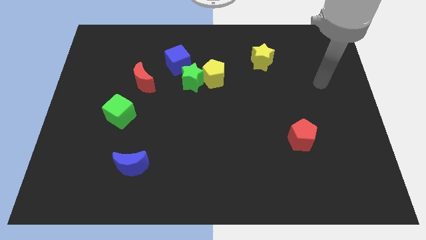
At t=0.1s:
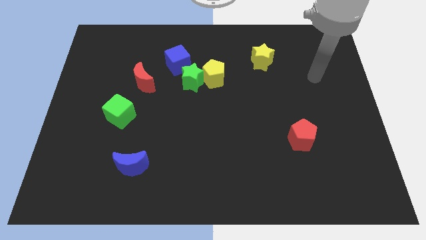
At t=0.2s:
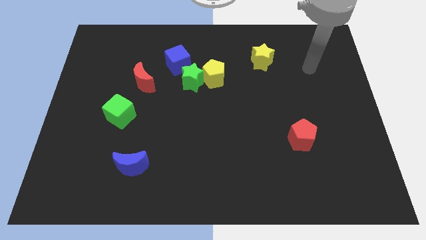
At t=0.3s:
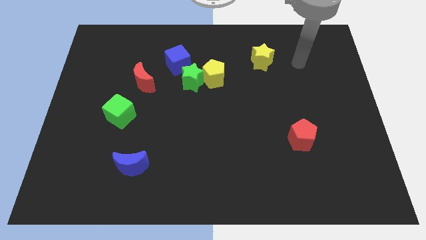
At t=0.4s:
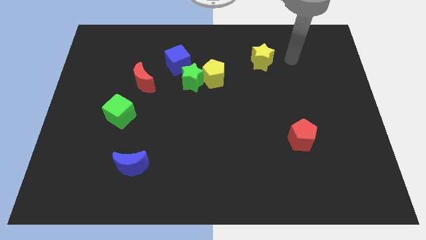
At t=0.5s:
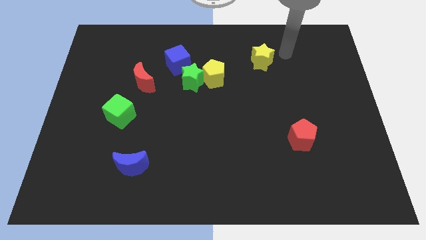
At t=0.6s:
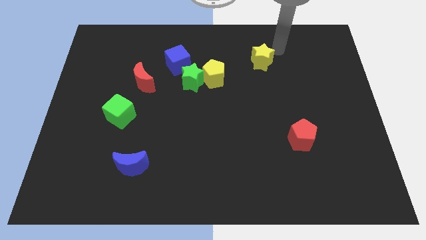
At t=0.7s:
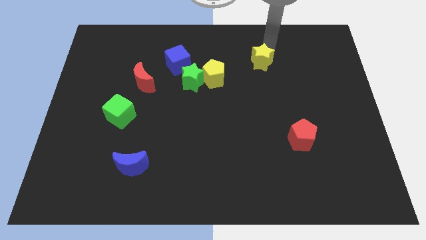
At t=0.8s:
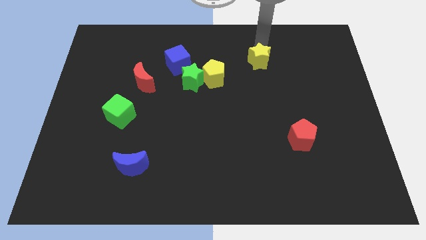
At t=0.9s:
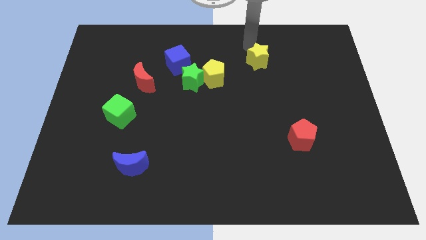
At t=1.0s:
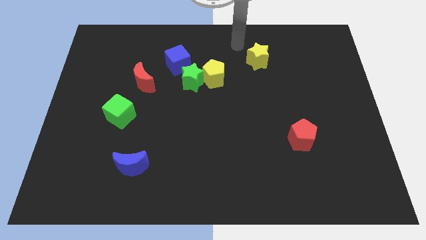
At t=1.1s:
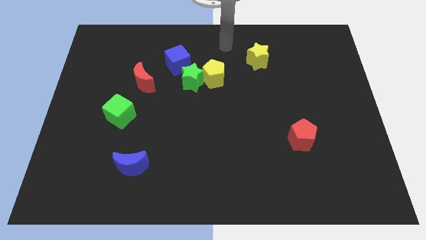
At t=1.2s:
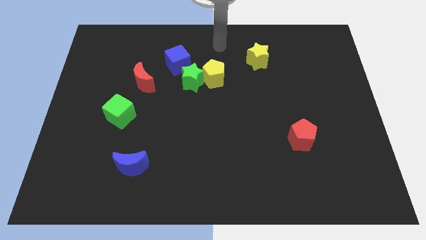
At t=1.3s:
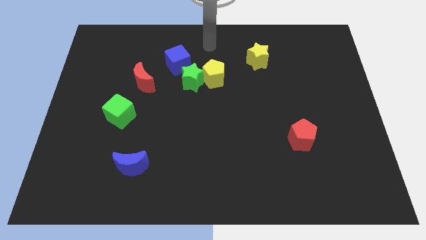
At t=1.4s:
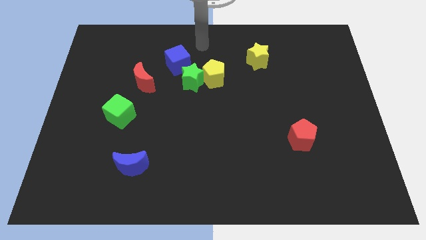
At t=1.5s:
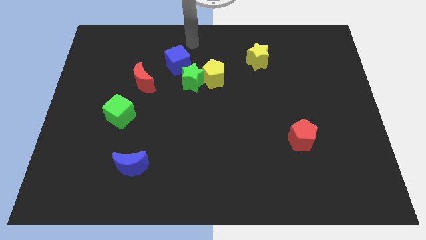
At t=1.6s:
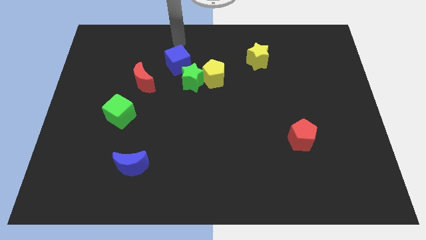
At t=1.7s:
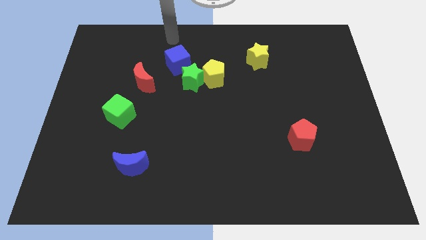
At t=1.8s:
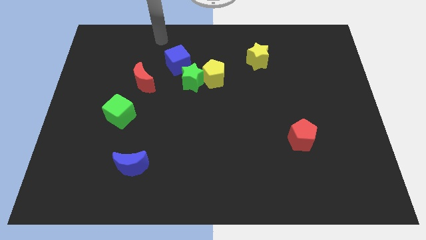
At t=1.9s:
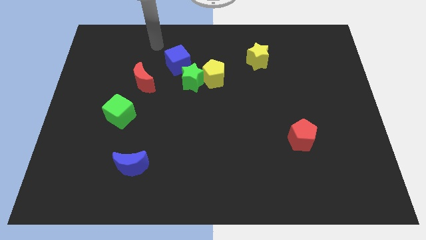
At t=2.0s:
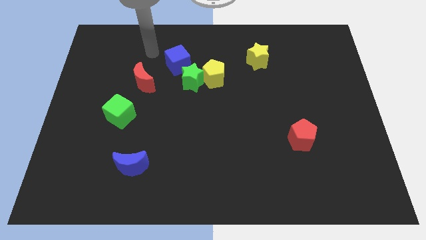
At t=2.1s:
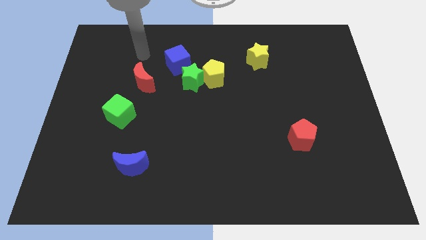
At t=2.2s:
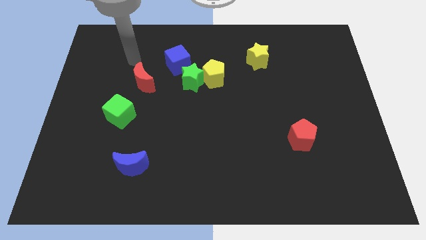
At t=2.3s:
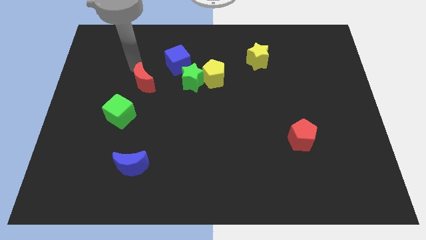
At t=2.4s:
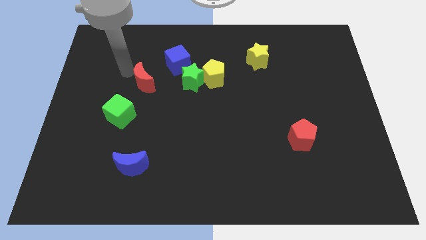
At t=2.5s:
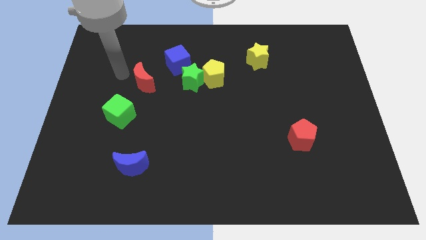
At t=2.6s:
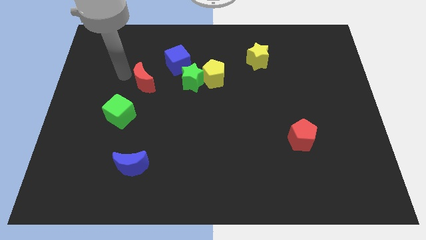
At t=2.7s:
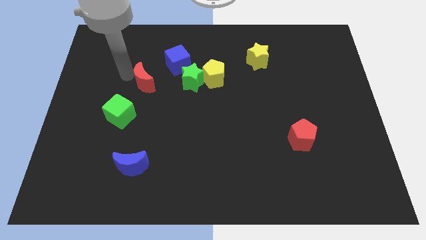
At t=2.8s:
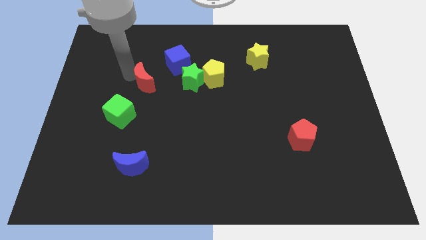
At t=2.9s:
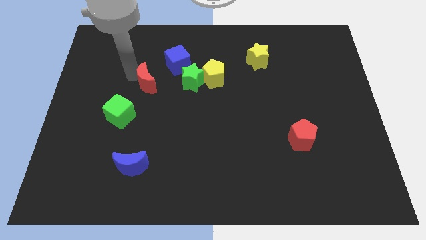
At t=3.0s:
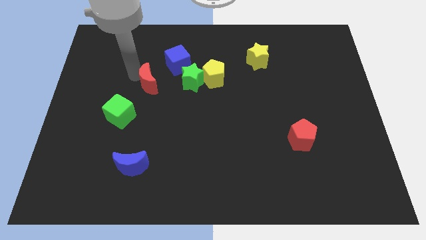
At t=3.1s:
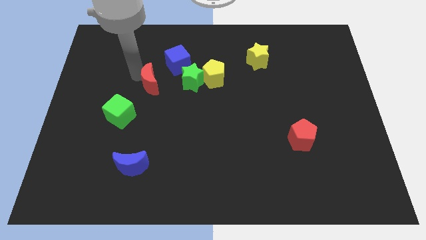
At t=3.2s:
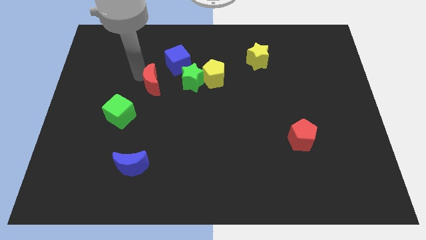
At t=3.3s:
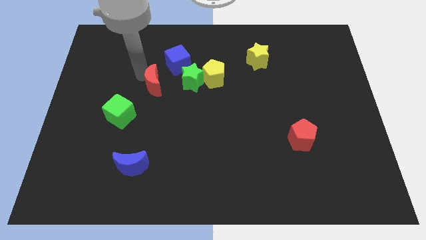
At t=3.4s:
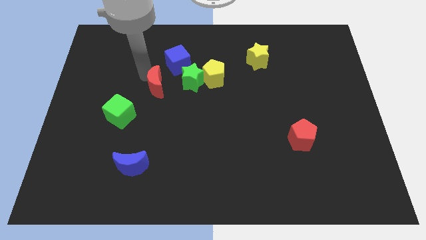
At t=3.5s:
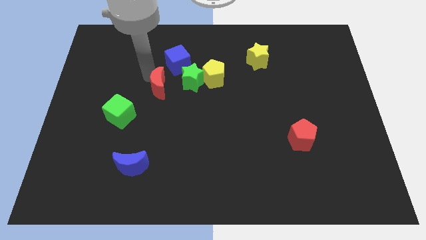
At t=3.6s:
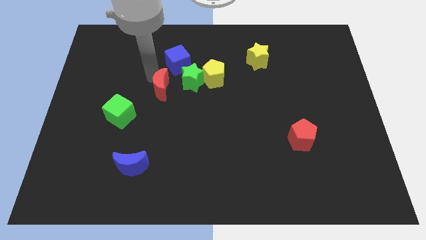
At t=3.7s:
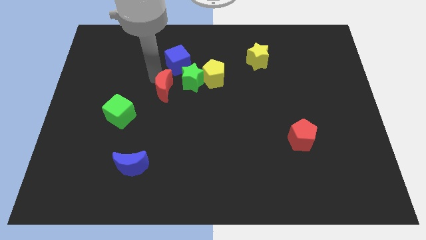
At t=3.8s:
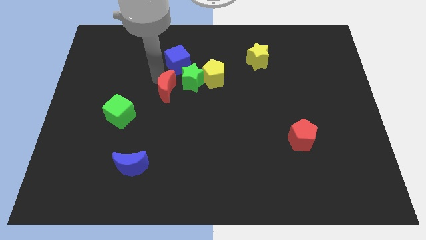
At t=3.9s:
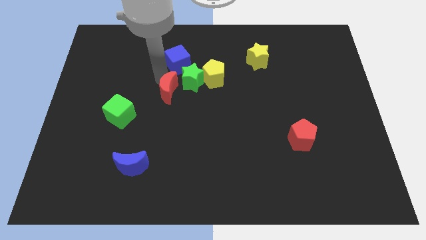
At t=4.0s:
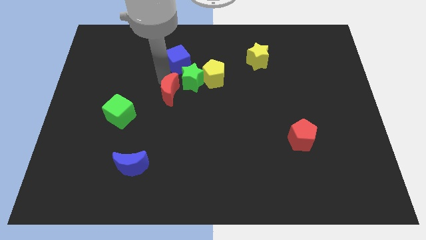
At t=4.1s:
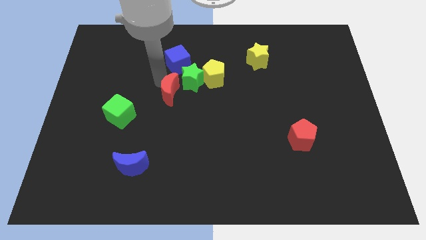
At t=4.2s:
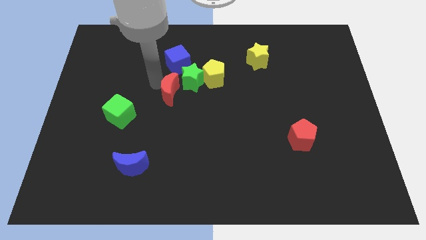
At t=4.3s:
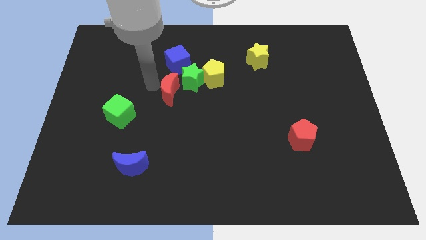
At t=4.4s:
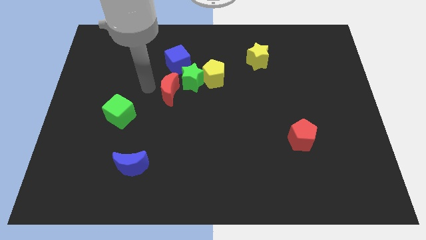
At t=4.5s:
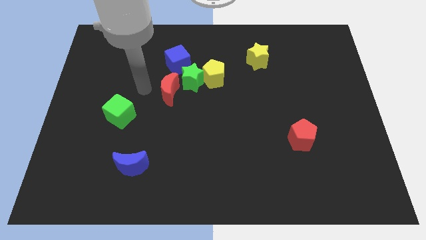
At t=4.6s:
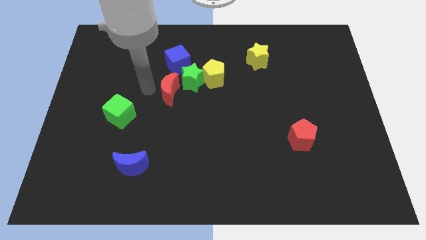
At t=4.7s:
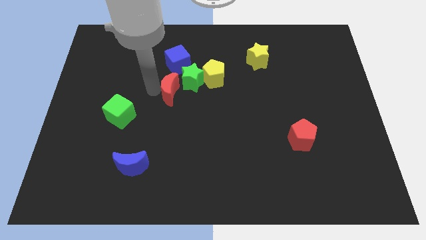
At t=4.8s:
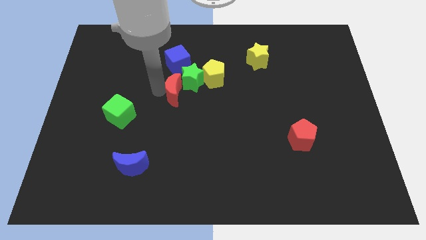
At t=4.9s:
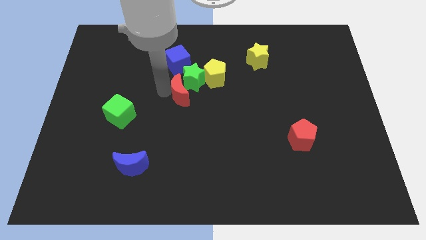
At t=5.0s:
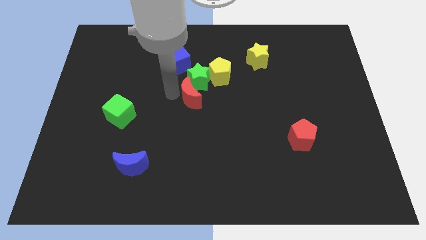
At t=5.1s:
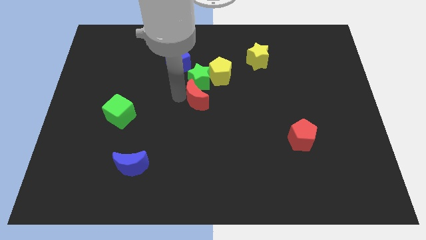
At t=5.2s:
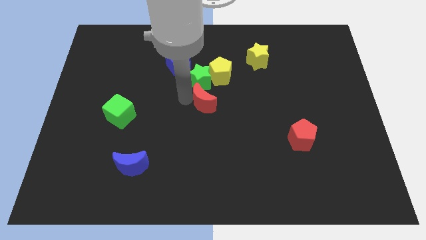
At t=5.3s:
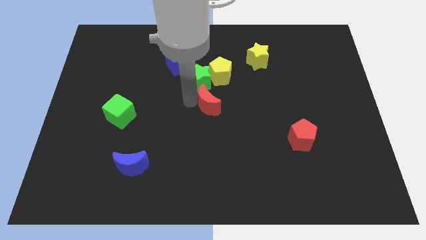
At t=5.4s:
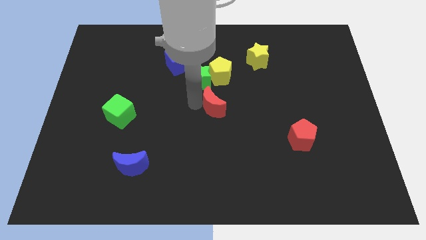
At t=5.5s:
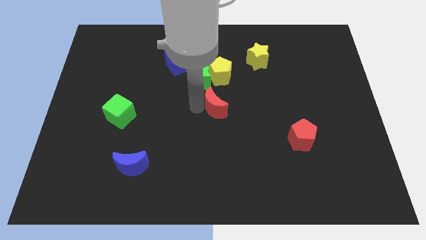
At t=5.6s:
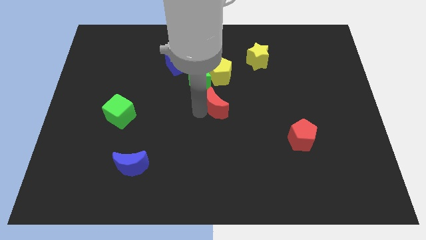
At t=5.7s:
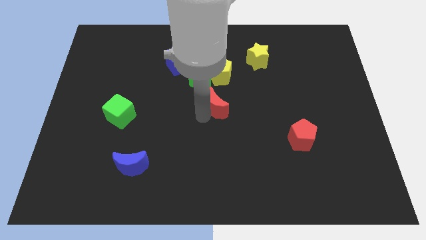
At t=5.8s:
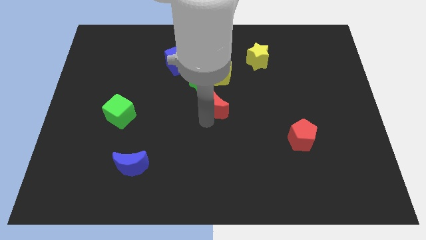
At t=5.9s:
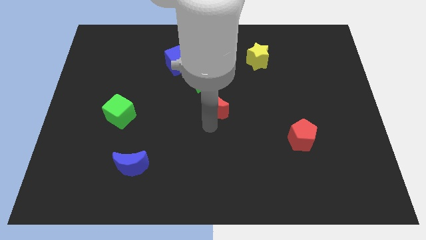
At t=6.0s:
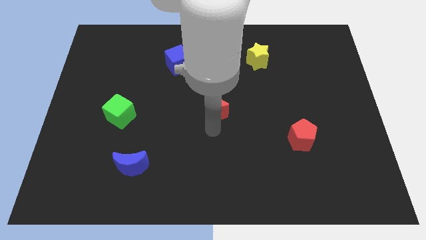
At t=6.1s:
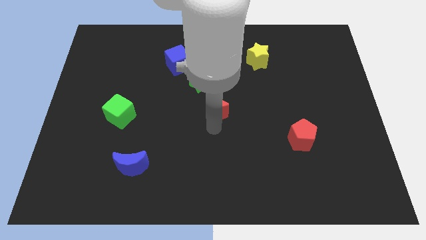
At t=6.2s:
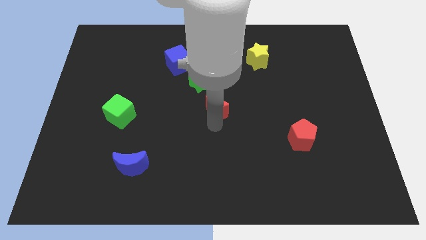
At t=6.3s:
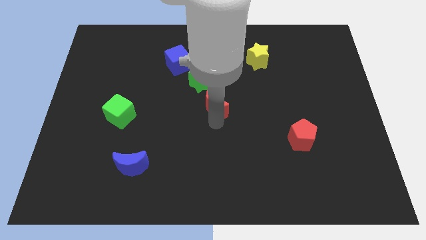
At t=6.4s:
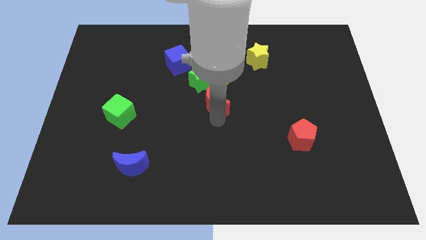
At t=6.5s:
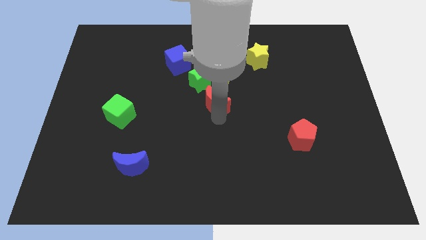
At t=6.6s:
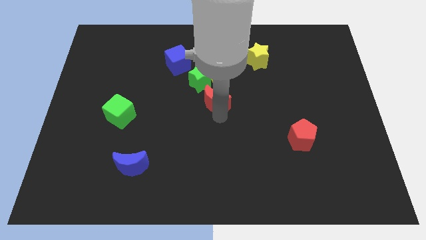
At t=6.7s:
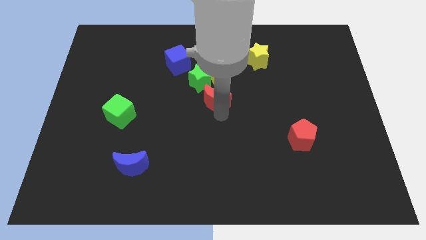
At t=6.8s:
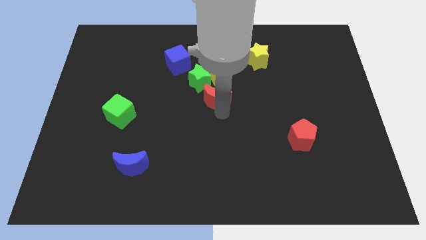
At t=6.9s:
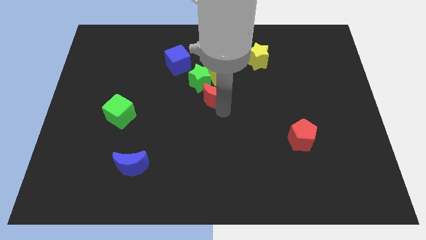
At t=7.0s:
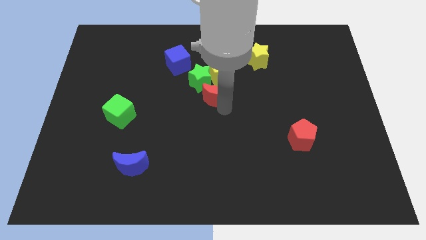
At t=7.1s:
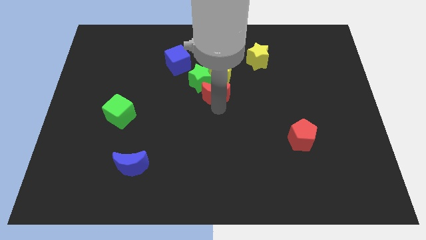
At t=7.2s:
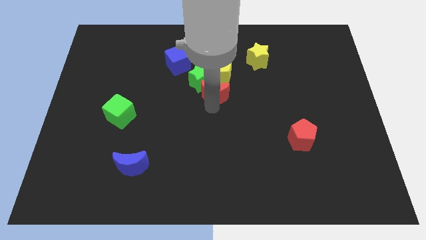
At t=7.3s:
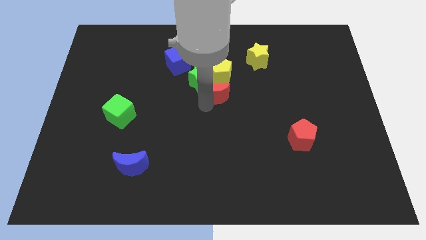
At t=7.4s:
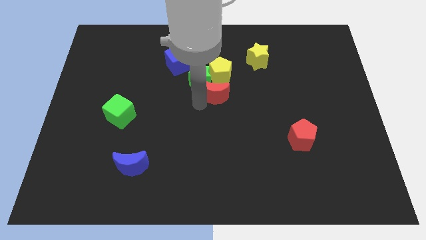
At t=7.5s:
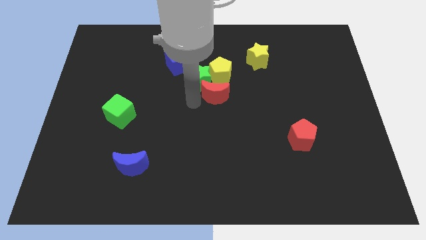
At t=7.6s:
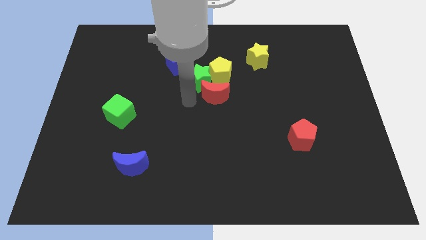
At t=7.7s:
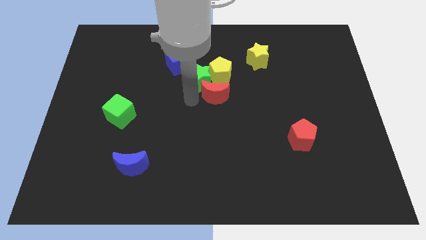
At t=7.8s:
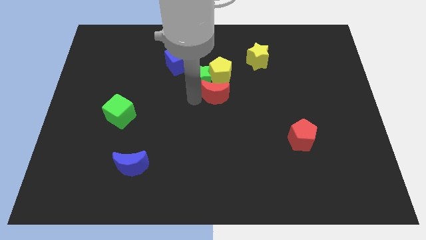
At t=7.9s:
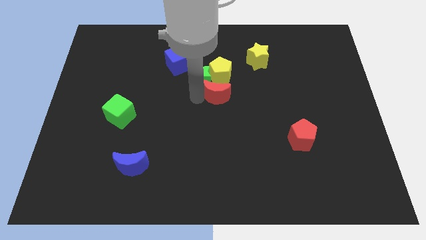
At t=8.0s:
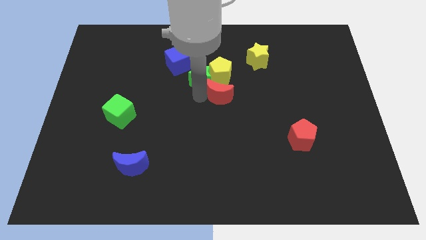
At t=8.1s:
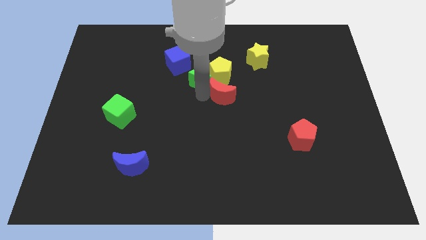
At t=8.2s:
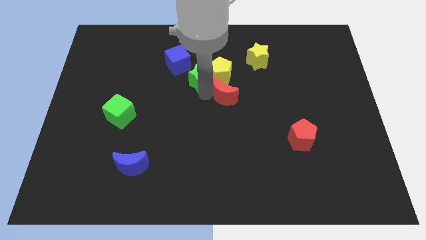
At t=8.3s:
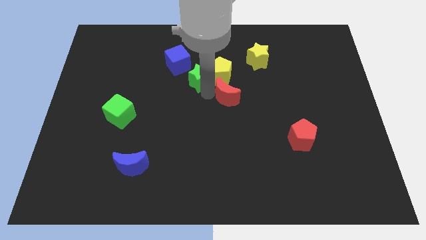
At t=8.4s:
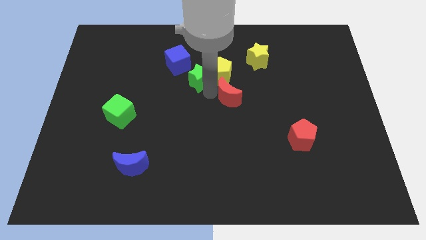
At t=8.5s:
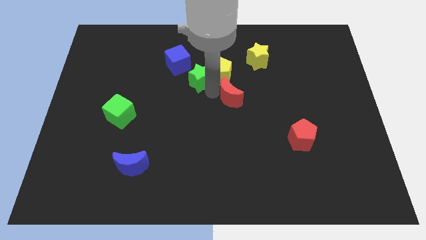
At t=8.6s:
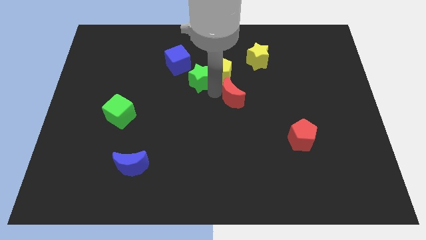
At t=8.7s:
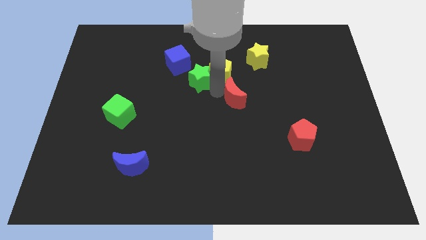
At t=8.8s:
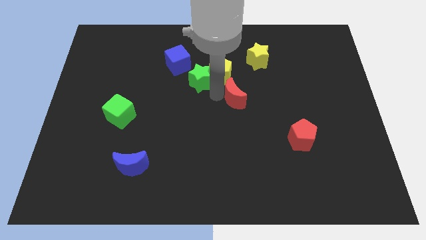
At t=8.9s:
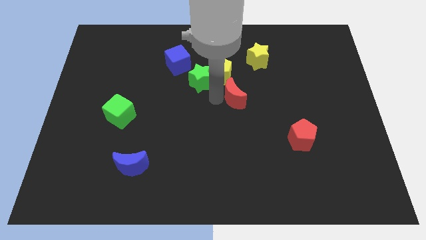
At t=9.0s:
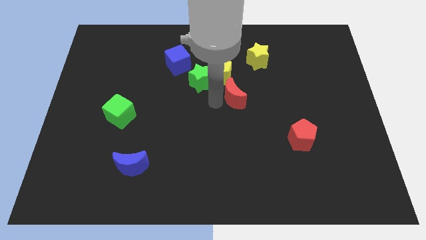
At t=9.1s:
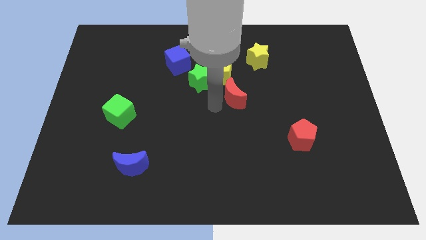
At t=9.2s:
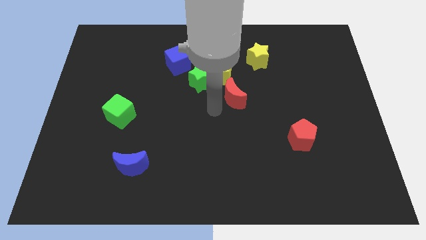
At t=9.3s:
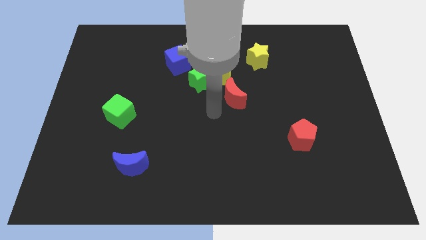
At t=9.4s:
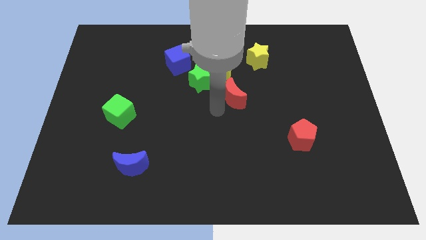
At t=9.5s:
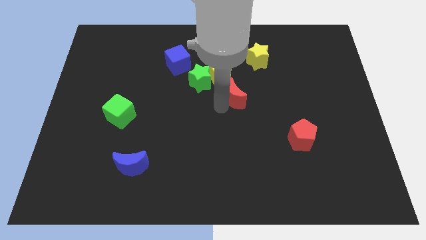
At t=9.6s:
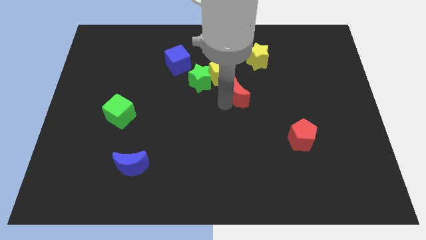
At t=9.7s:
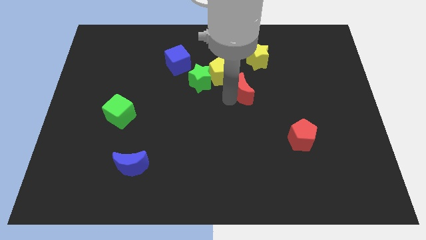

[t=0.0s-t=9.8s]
push the red moon to the bottom of the yellow star
